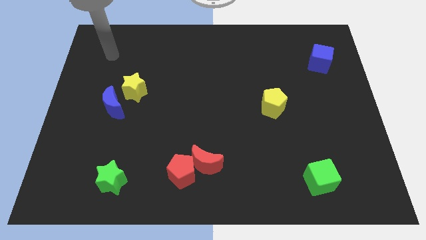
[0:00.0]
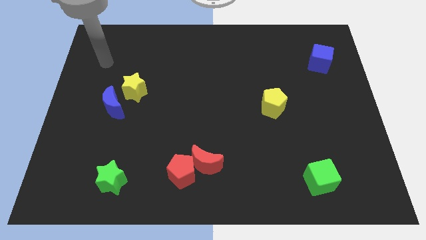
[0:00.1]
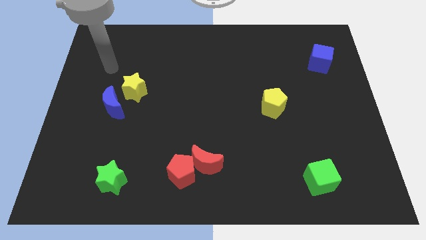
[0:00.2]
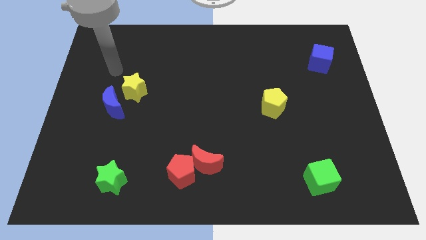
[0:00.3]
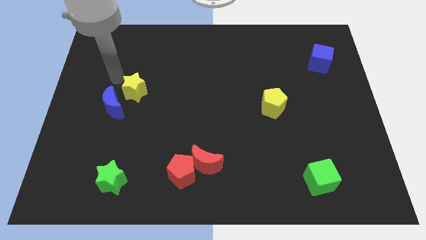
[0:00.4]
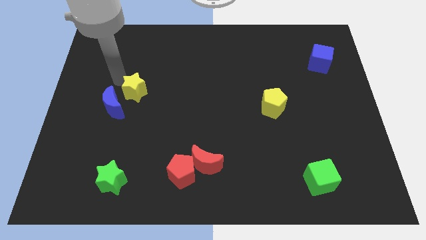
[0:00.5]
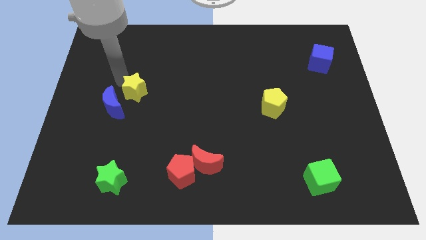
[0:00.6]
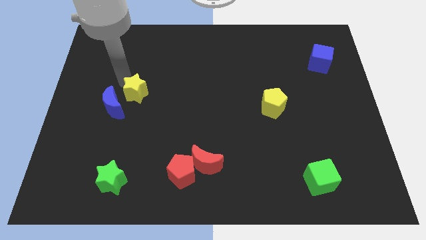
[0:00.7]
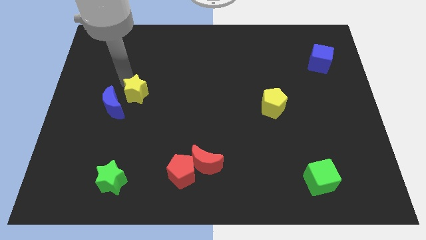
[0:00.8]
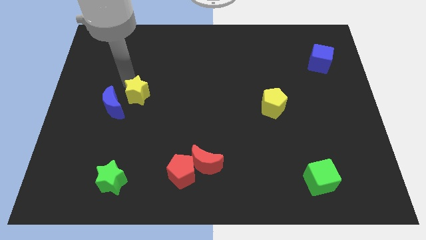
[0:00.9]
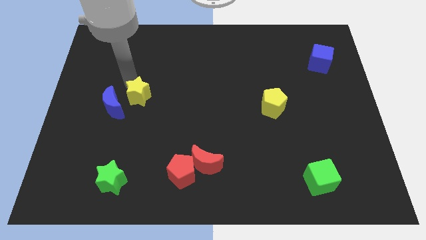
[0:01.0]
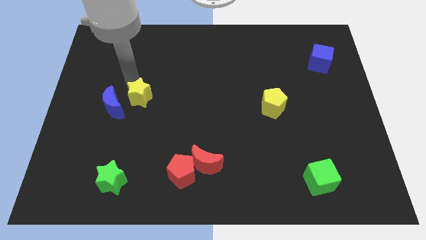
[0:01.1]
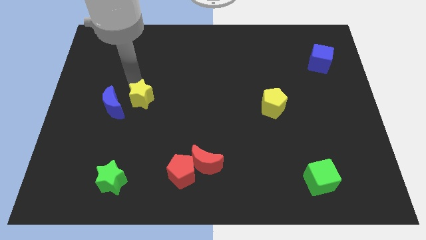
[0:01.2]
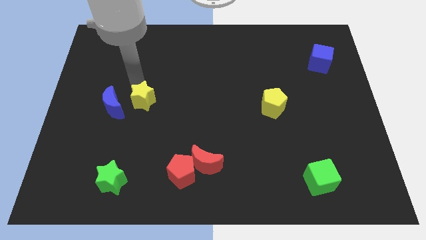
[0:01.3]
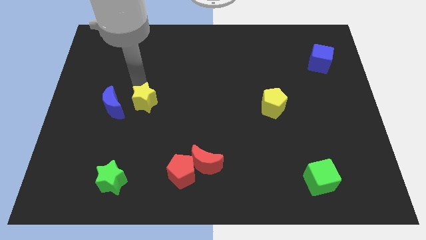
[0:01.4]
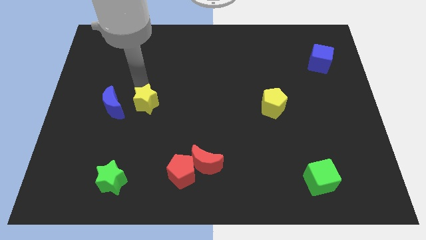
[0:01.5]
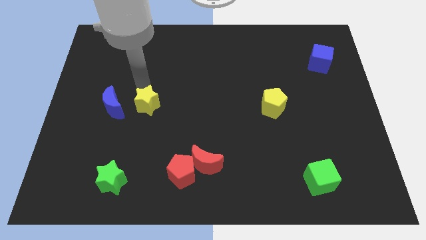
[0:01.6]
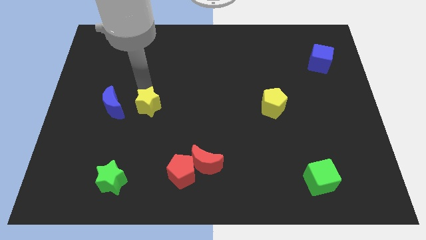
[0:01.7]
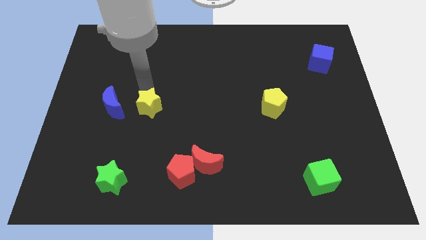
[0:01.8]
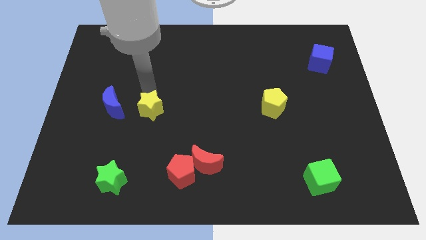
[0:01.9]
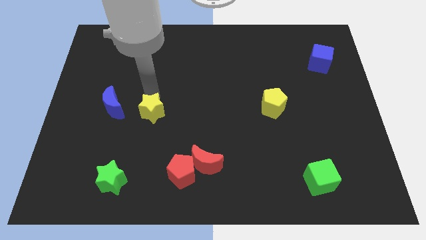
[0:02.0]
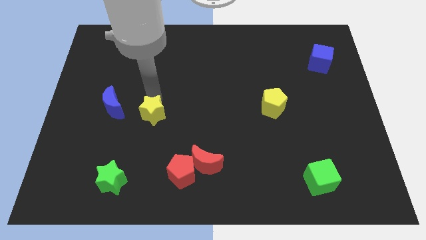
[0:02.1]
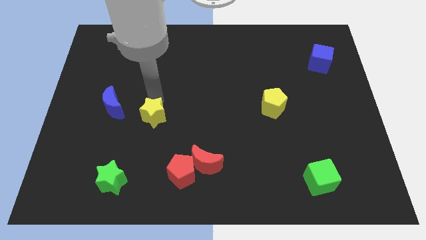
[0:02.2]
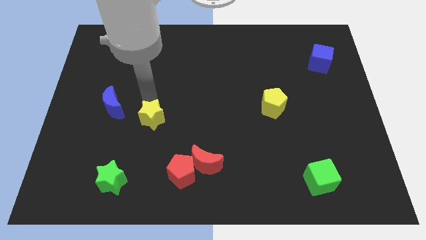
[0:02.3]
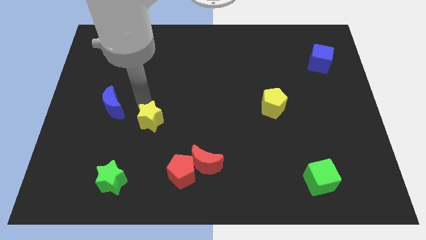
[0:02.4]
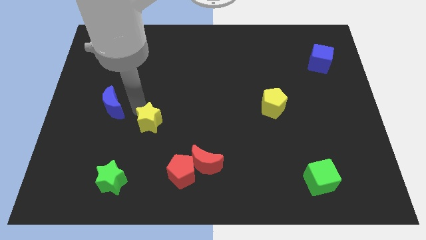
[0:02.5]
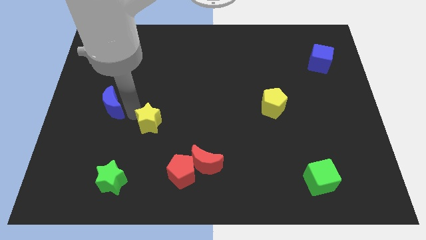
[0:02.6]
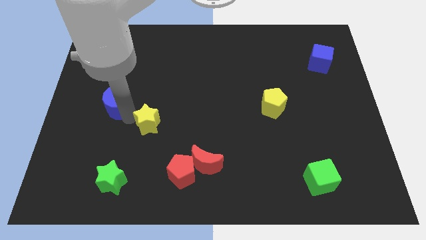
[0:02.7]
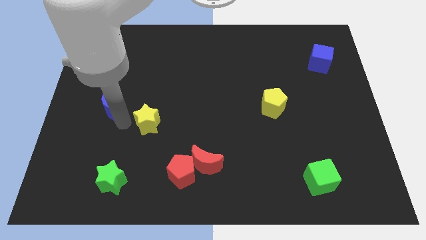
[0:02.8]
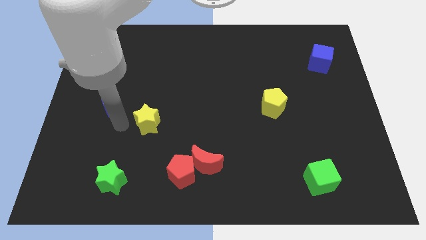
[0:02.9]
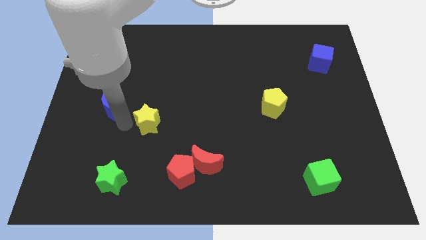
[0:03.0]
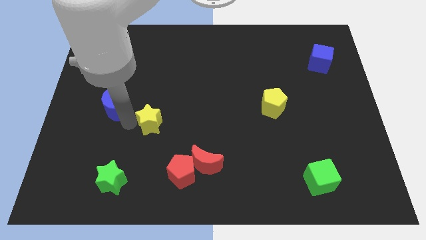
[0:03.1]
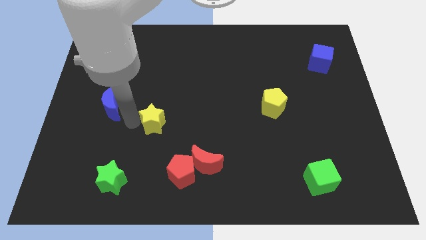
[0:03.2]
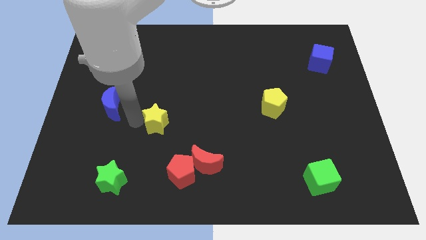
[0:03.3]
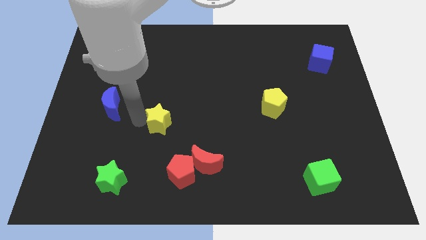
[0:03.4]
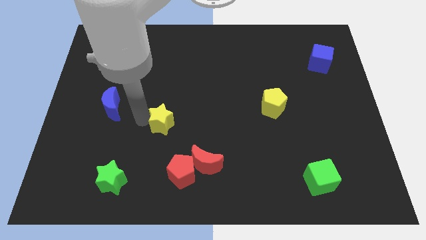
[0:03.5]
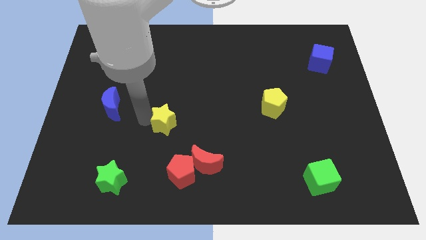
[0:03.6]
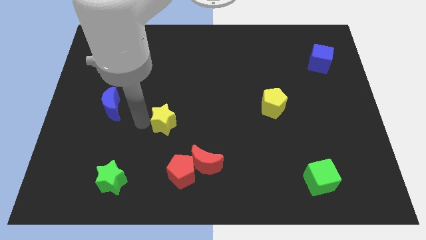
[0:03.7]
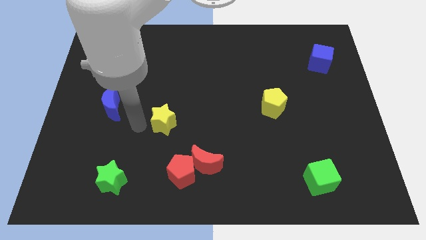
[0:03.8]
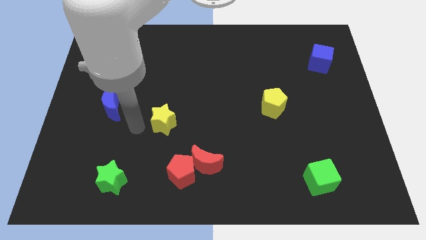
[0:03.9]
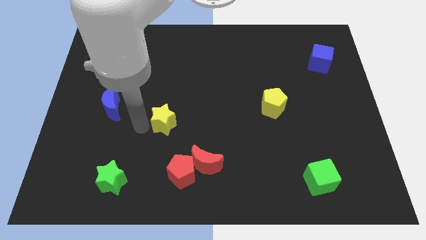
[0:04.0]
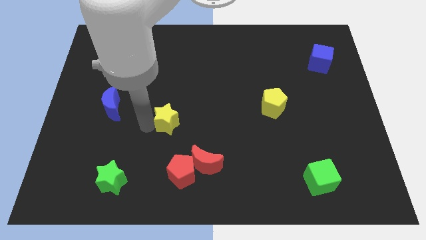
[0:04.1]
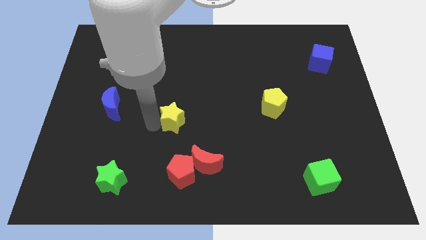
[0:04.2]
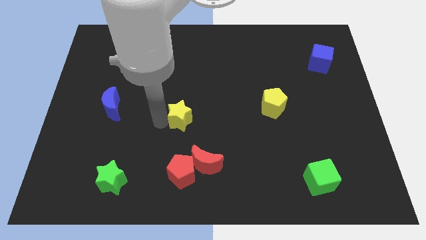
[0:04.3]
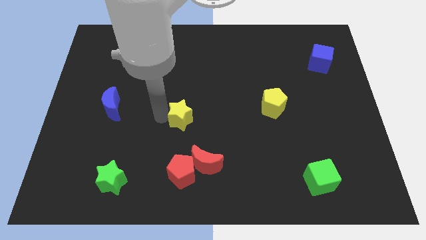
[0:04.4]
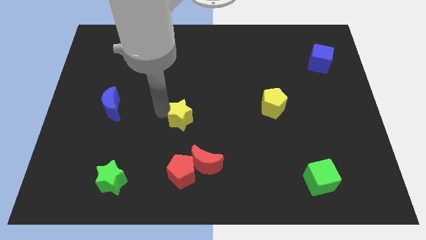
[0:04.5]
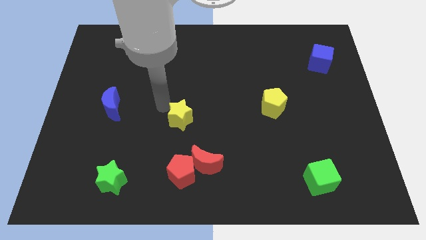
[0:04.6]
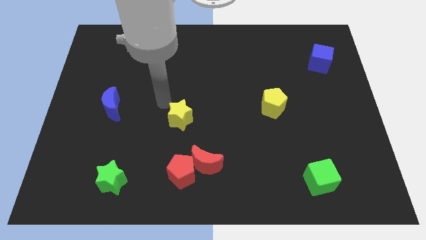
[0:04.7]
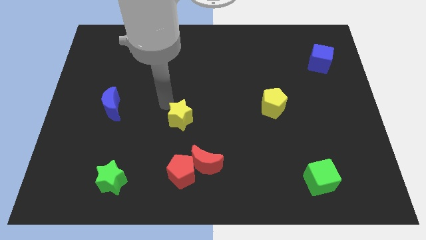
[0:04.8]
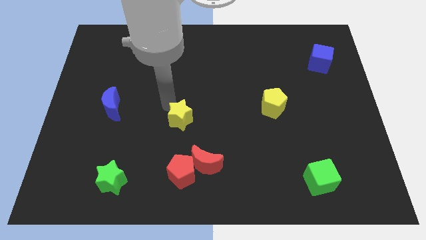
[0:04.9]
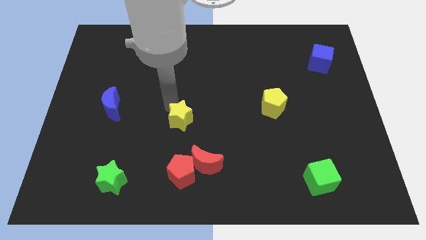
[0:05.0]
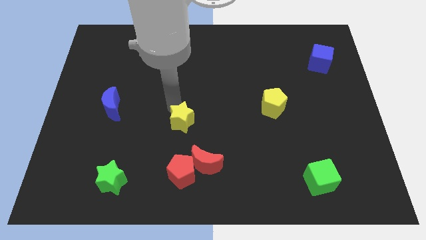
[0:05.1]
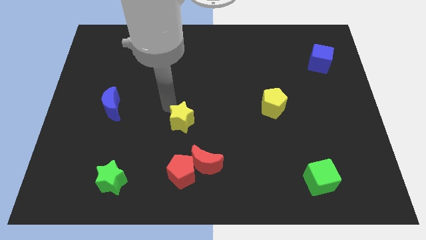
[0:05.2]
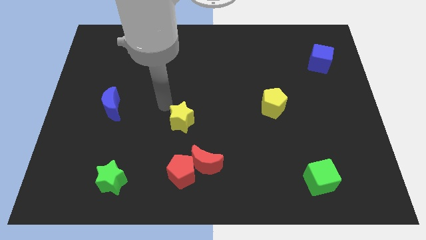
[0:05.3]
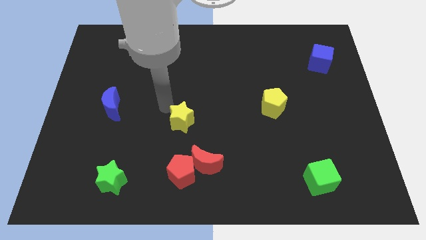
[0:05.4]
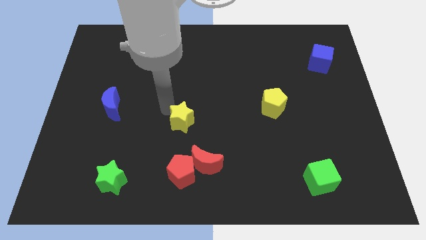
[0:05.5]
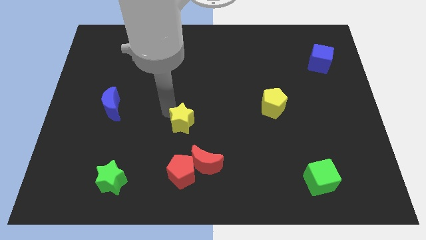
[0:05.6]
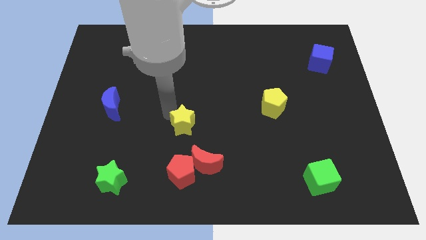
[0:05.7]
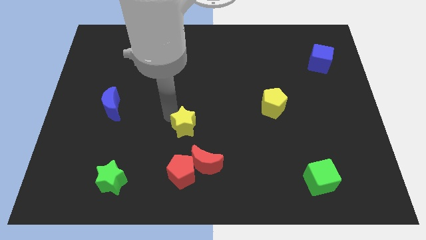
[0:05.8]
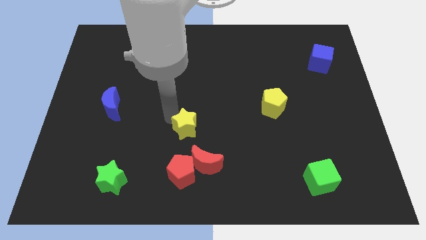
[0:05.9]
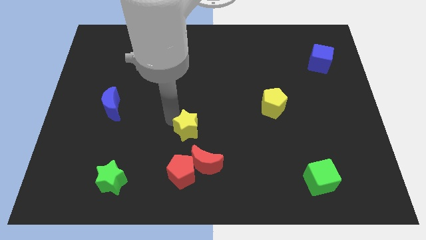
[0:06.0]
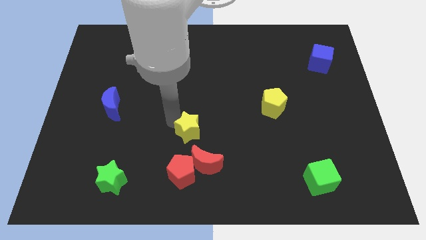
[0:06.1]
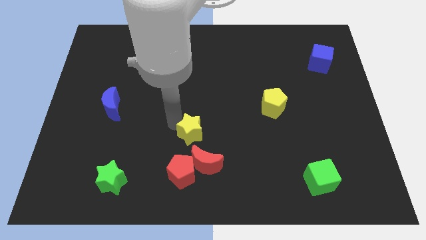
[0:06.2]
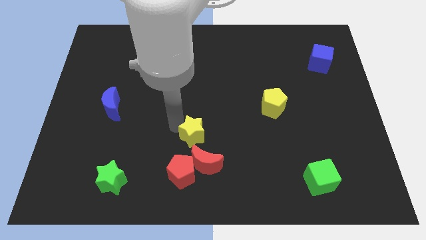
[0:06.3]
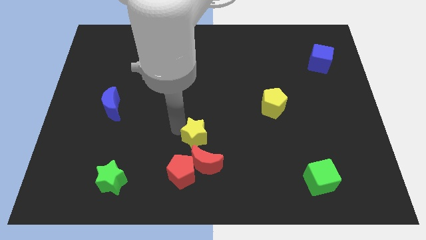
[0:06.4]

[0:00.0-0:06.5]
move the yellow star downwards and then to the right

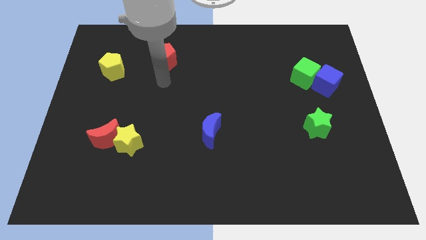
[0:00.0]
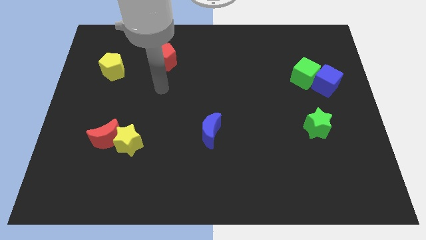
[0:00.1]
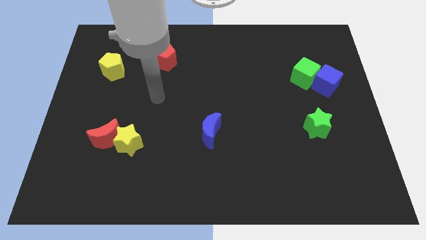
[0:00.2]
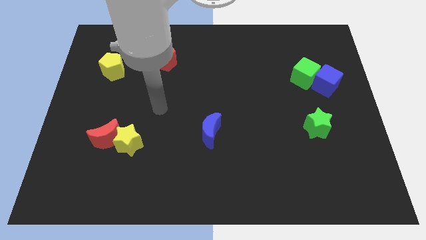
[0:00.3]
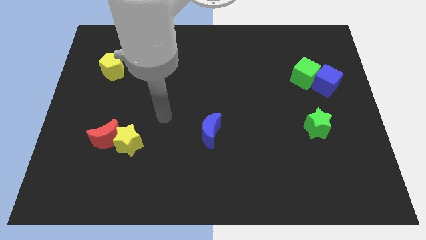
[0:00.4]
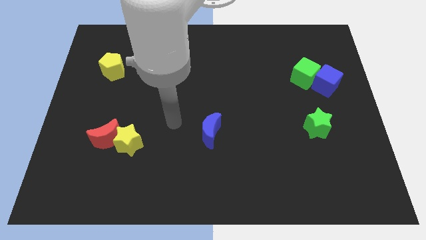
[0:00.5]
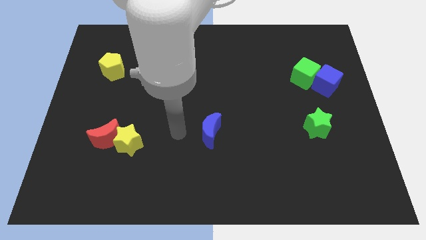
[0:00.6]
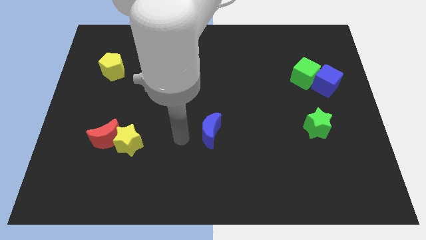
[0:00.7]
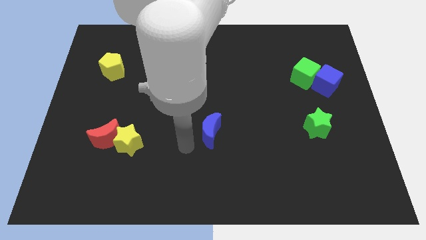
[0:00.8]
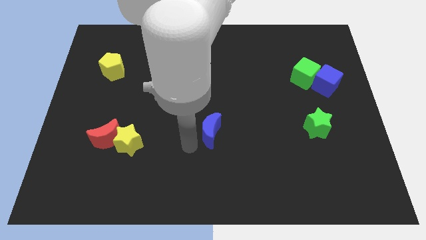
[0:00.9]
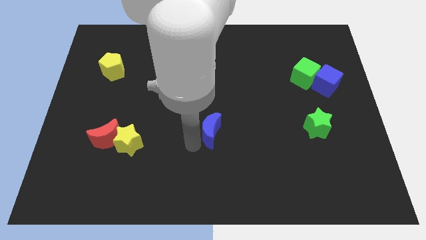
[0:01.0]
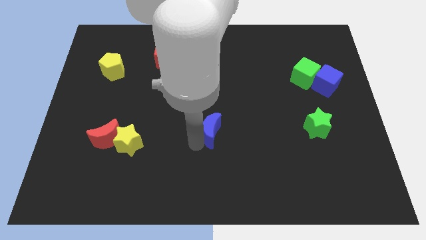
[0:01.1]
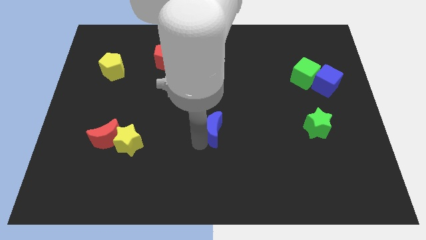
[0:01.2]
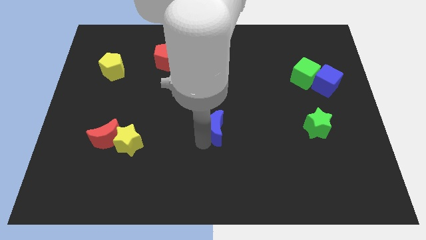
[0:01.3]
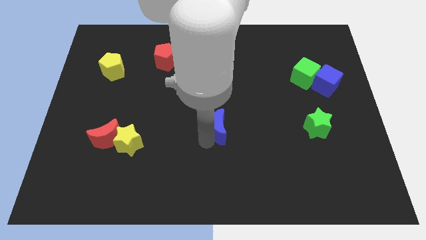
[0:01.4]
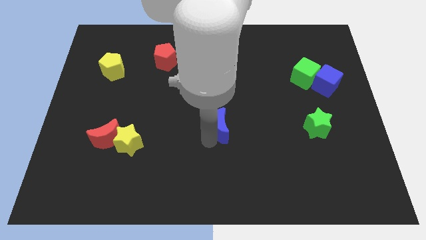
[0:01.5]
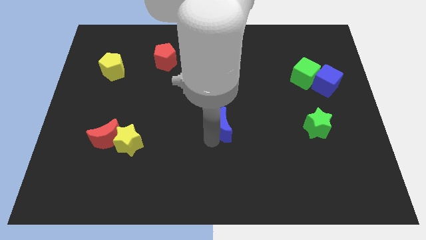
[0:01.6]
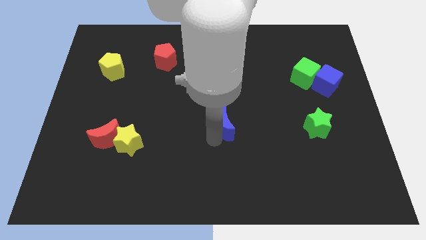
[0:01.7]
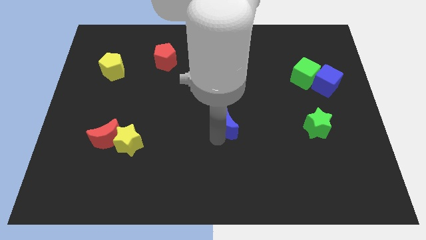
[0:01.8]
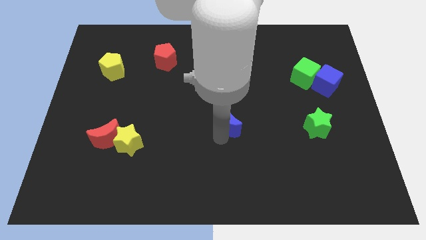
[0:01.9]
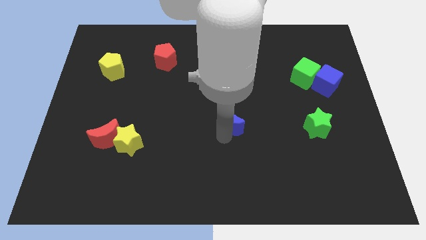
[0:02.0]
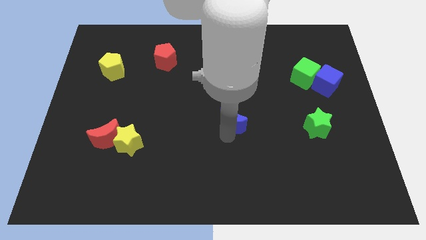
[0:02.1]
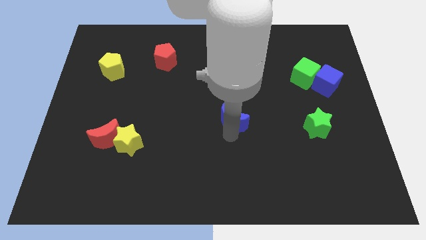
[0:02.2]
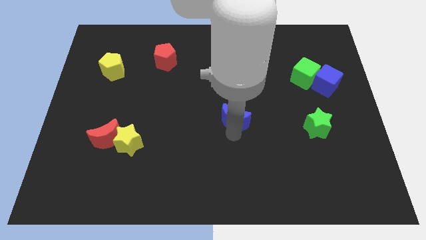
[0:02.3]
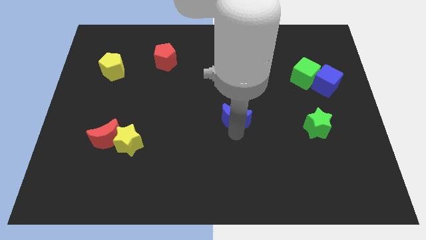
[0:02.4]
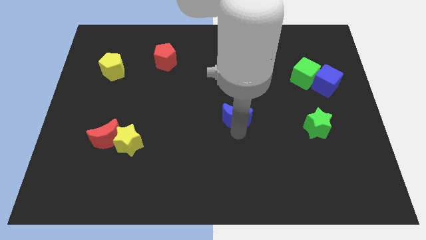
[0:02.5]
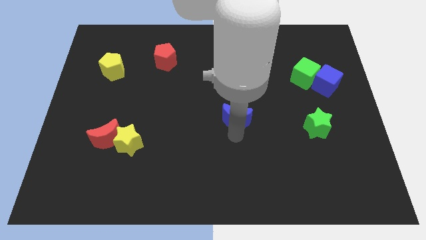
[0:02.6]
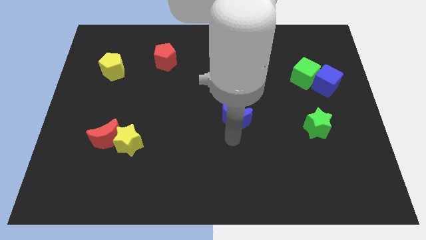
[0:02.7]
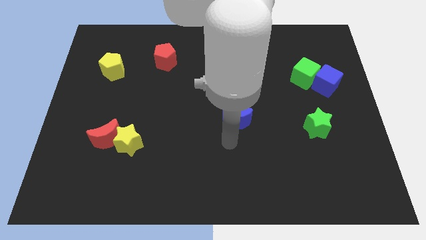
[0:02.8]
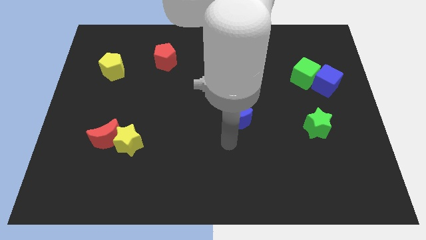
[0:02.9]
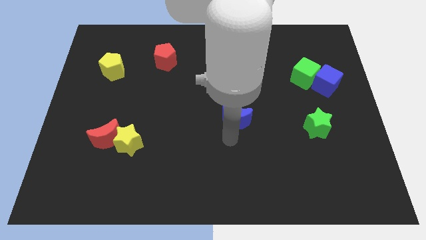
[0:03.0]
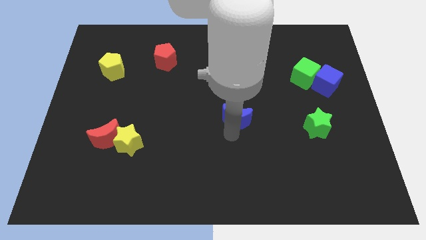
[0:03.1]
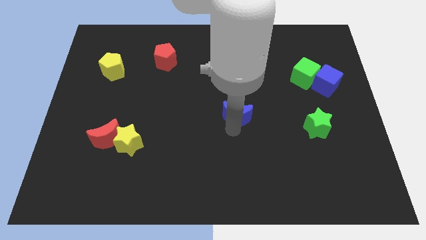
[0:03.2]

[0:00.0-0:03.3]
push the blue moon a little bit diagonally upwards and to the right
